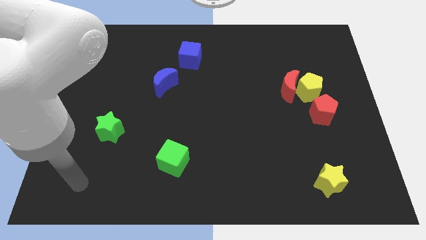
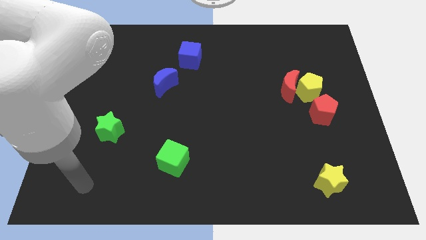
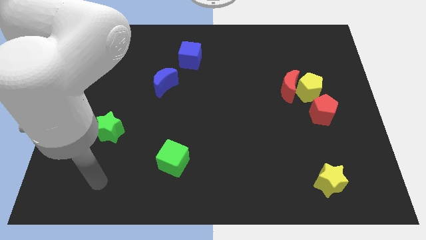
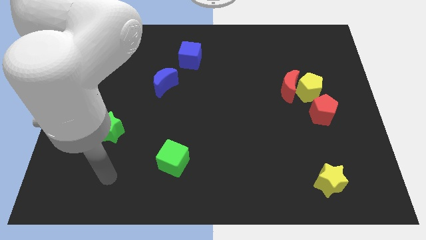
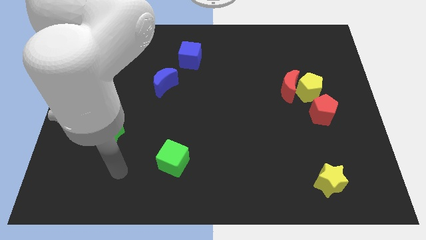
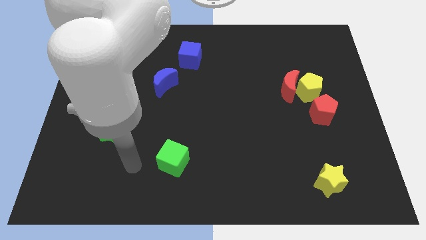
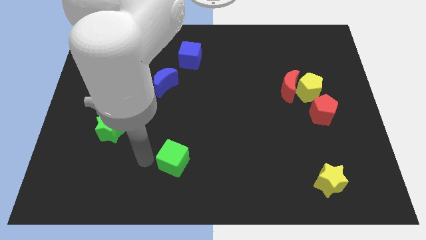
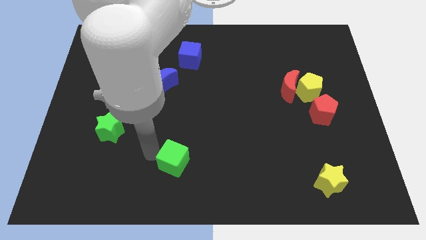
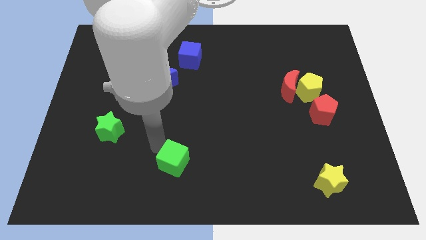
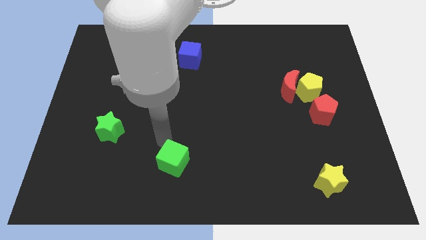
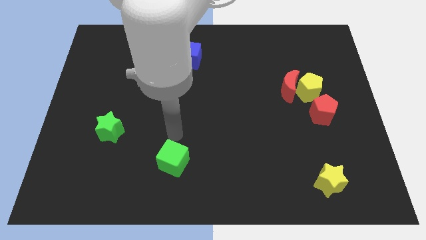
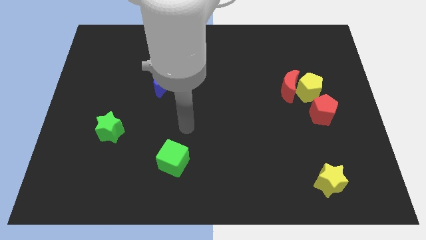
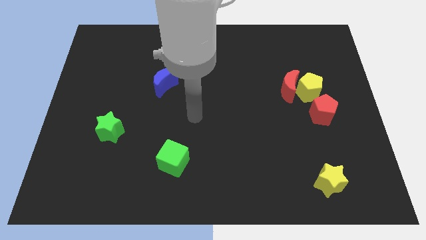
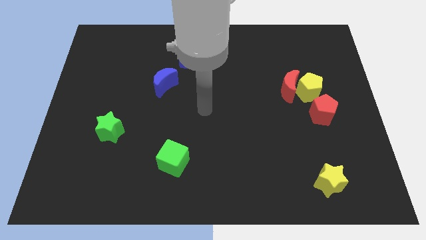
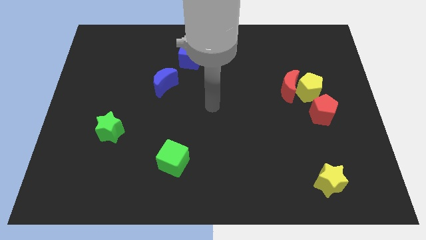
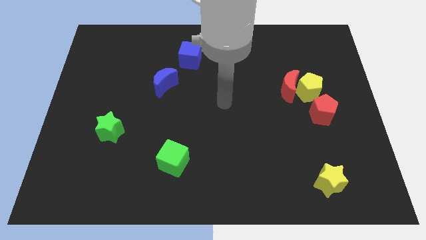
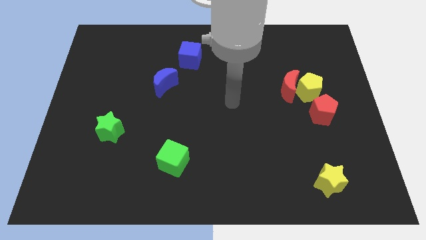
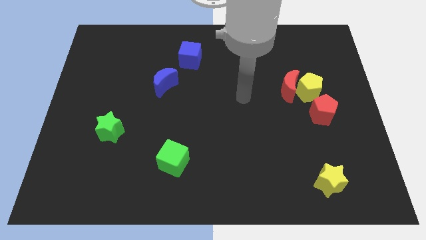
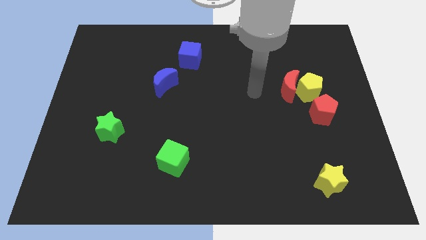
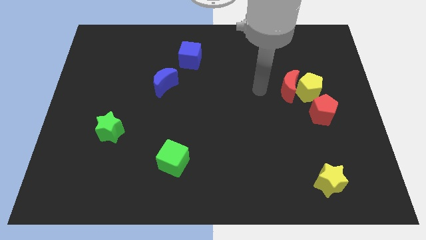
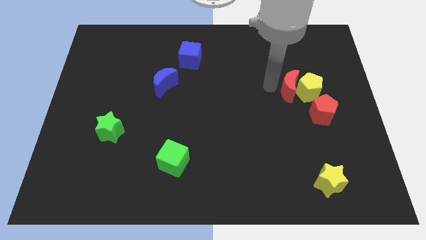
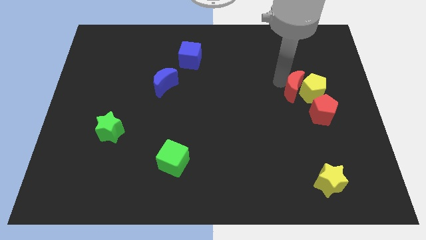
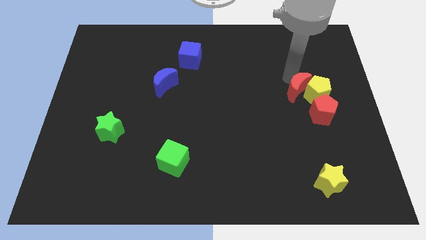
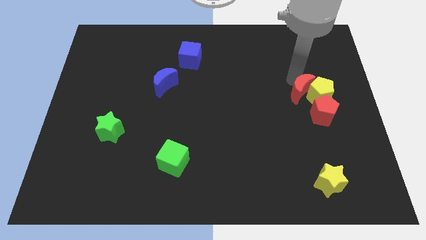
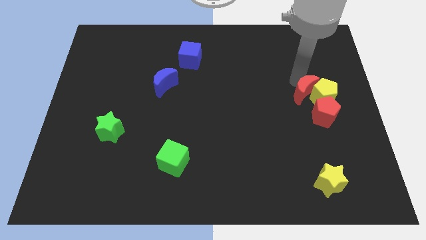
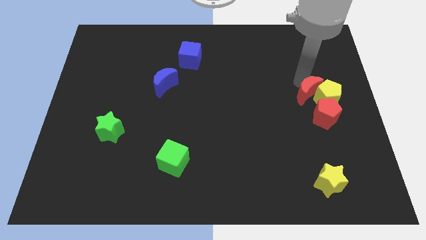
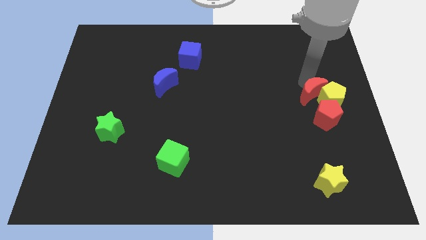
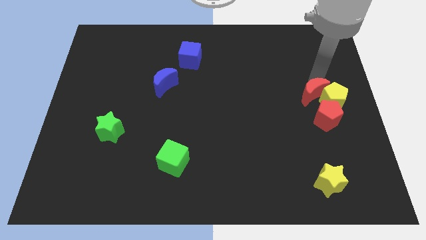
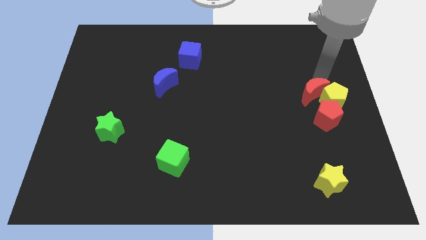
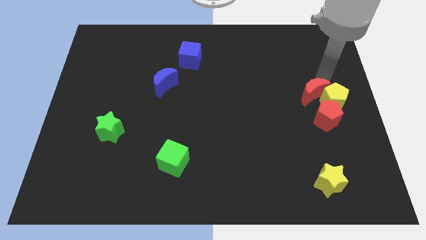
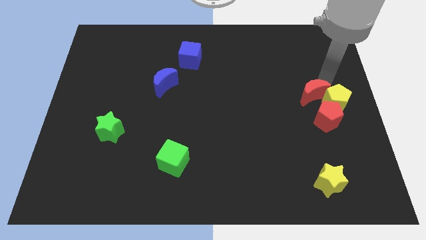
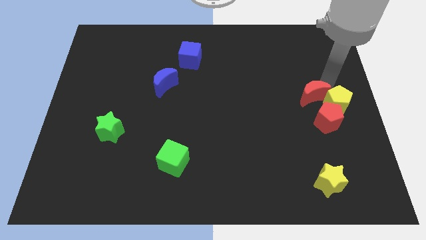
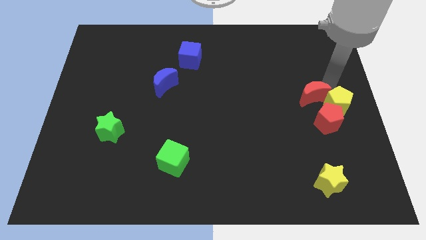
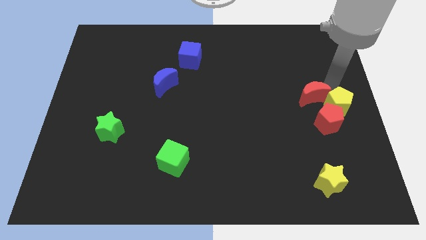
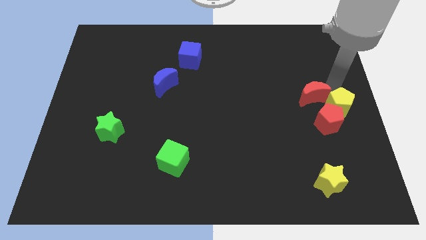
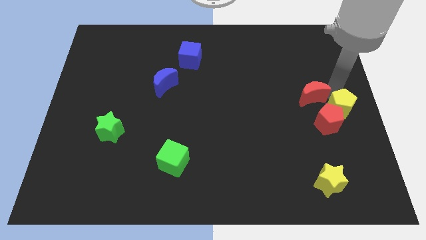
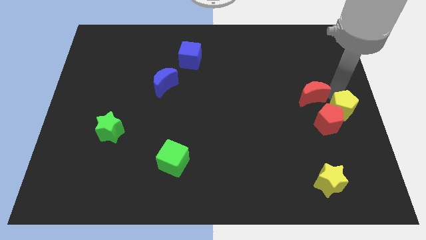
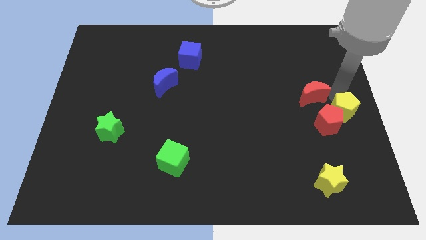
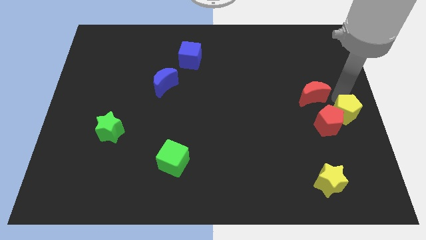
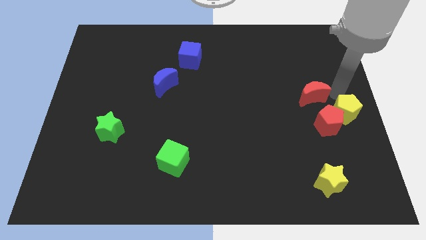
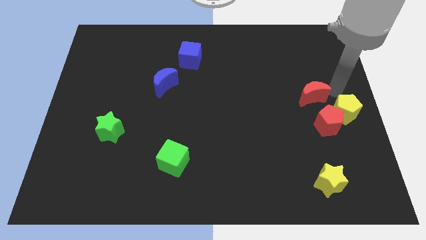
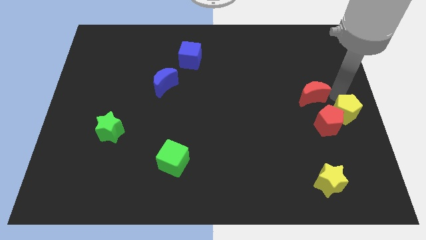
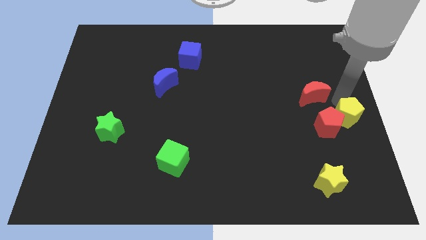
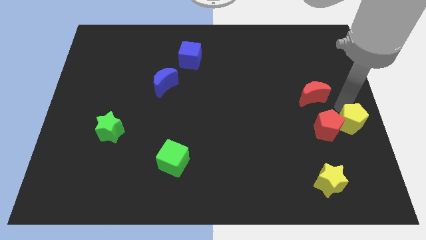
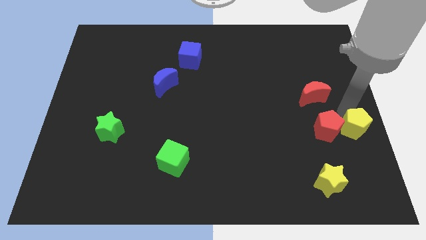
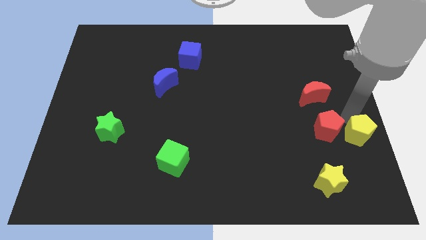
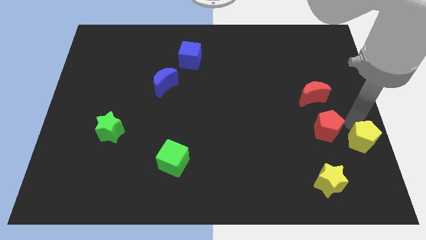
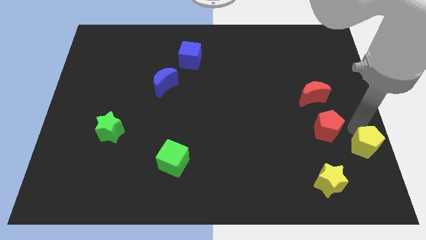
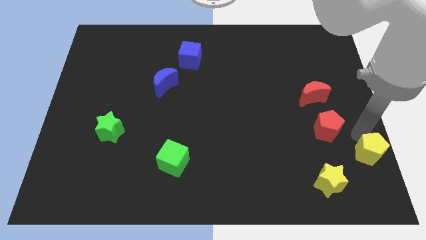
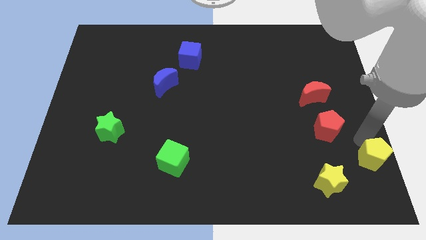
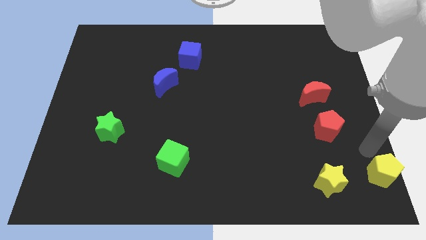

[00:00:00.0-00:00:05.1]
slide the yellow pentagon to the bottom right
